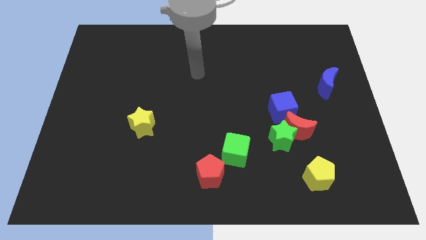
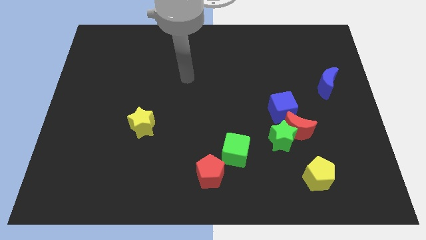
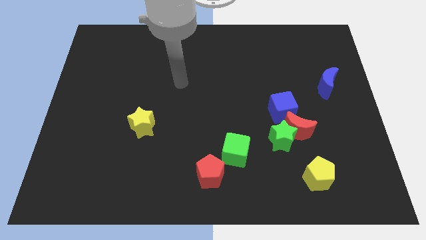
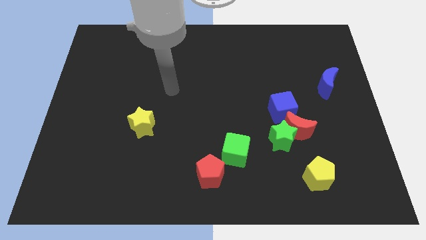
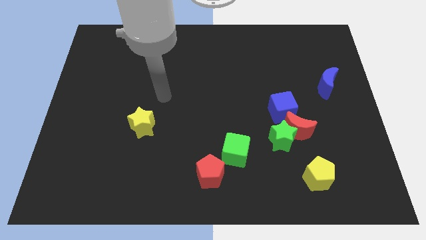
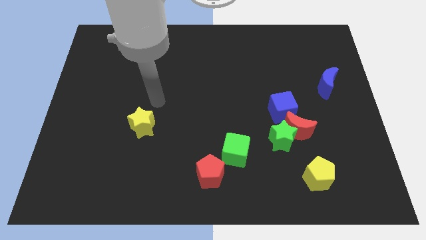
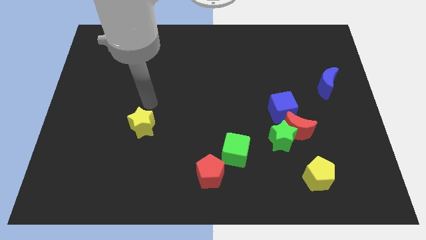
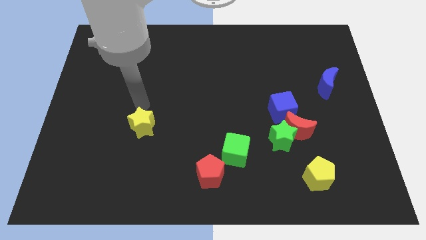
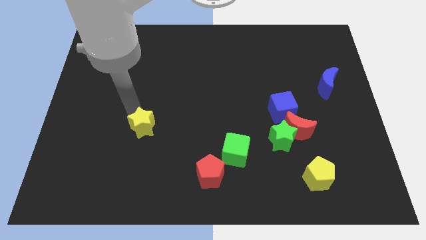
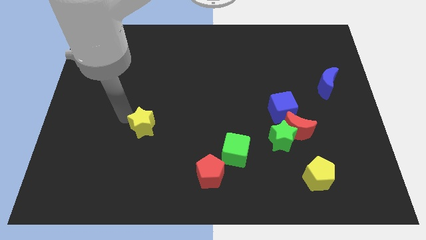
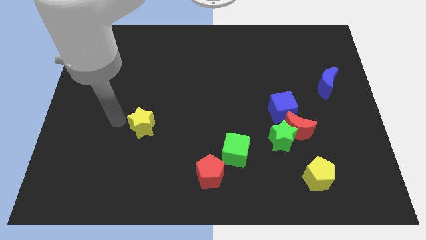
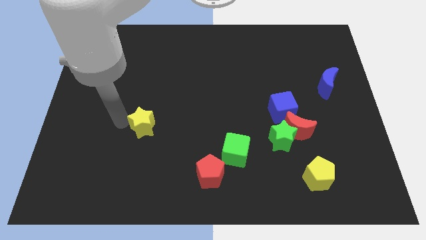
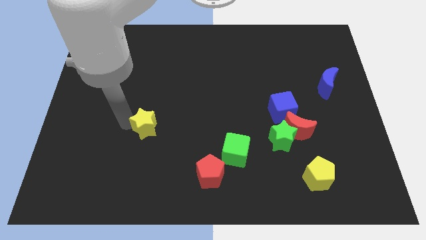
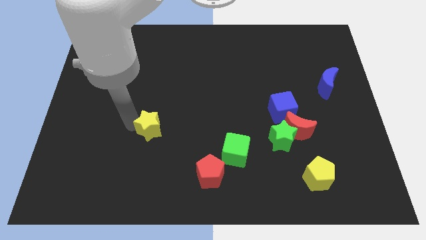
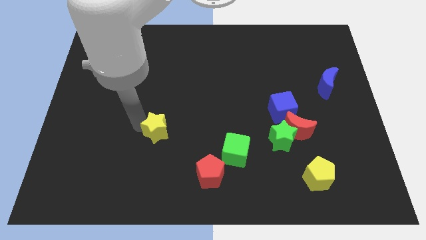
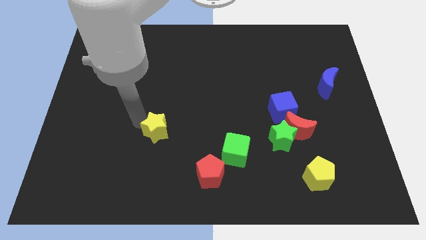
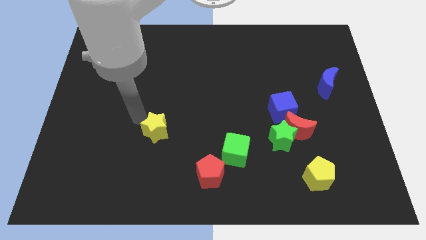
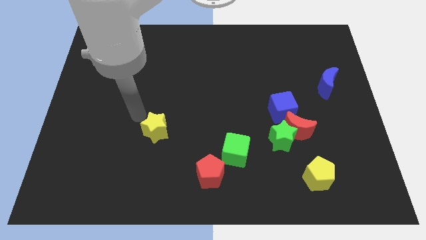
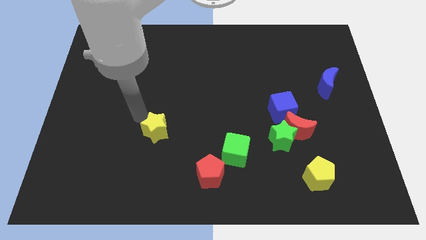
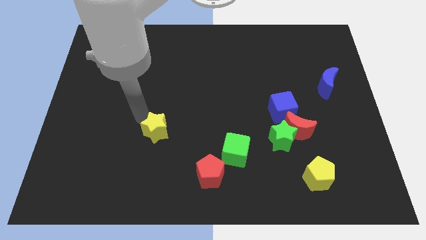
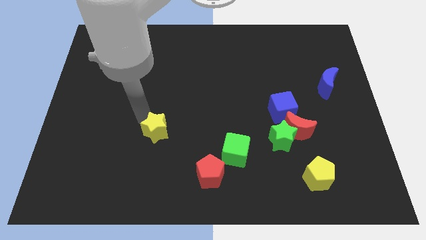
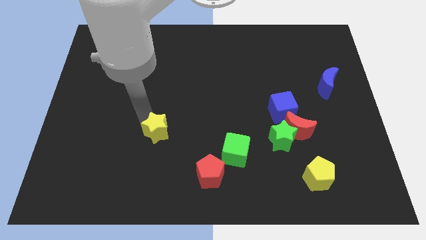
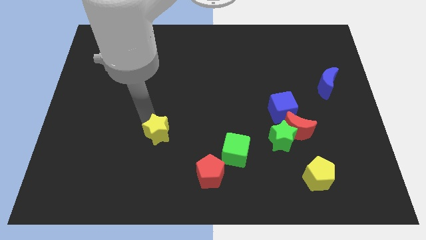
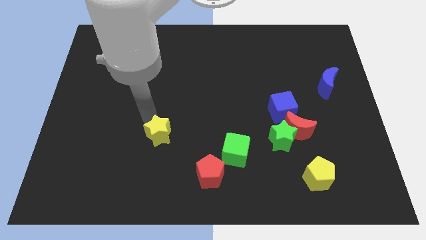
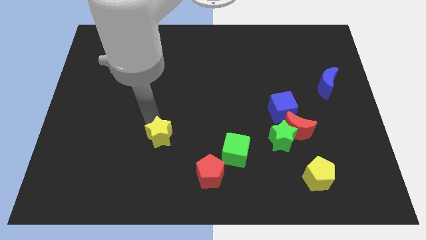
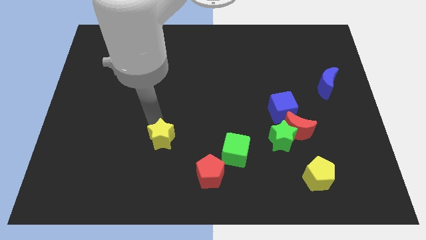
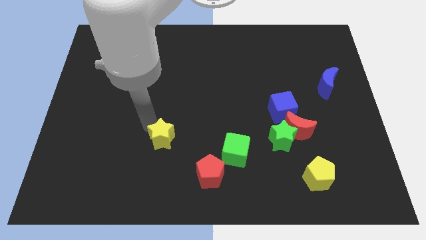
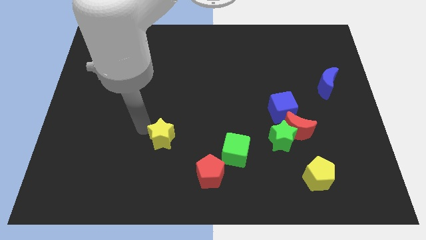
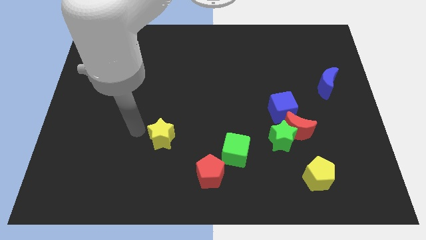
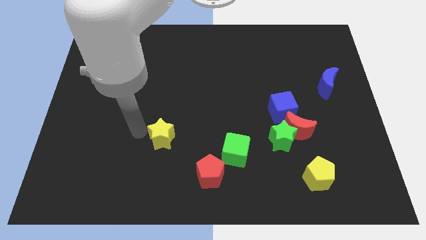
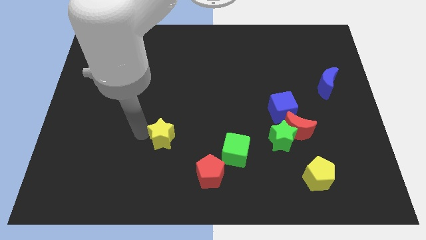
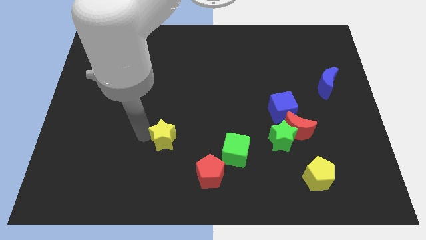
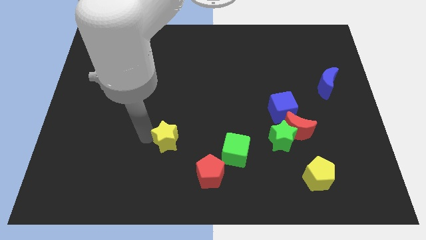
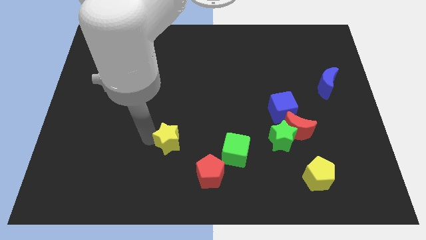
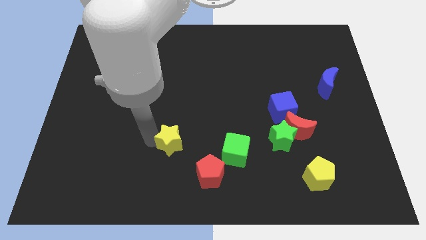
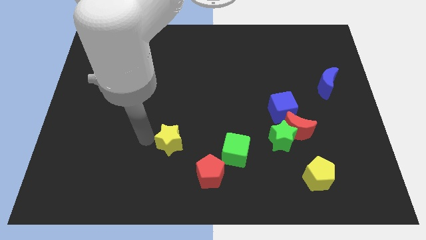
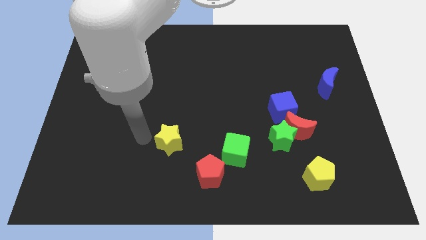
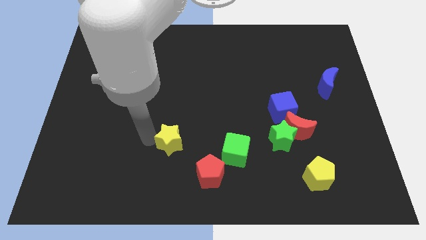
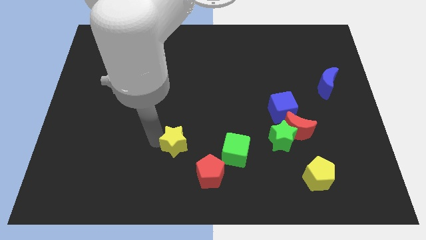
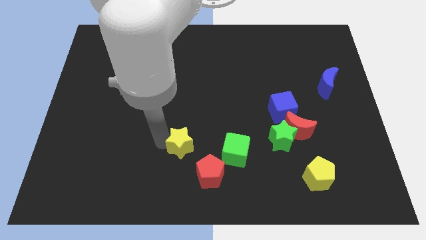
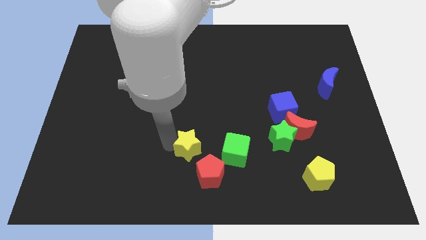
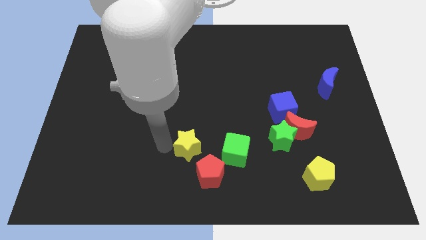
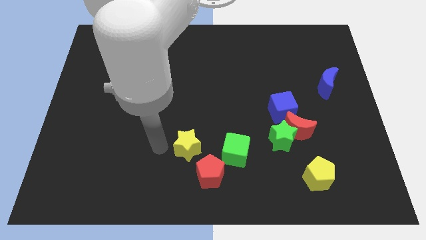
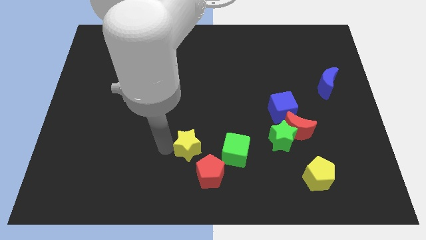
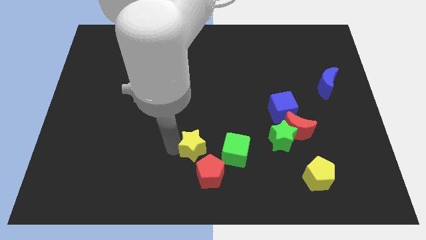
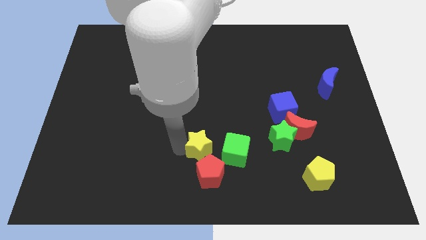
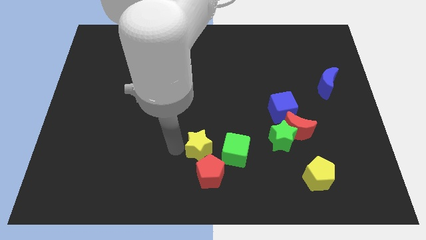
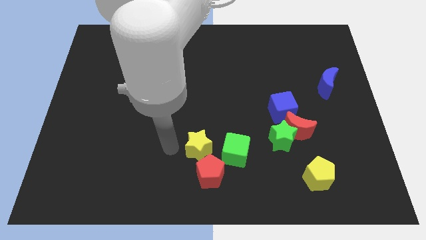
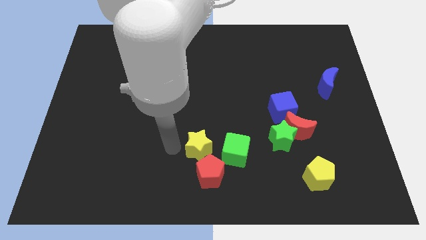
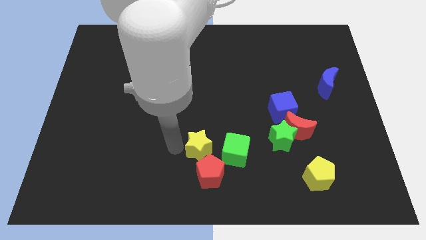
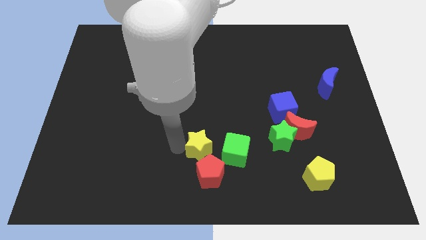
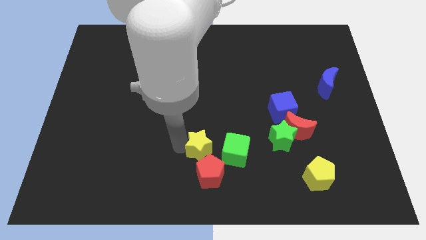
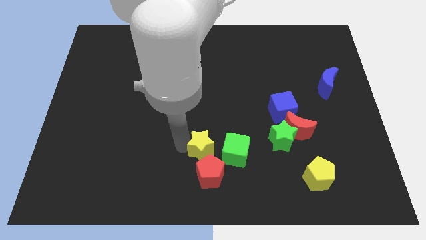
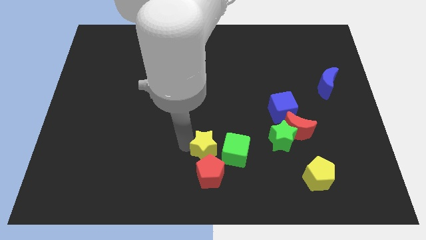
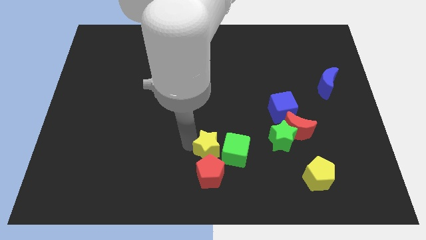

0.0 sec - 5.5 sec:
push the yellow star to the green cube

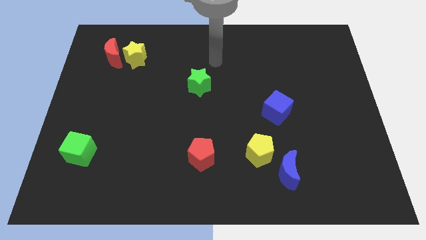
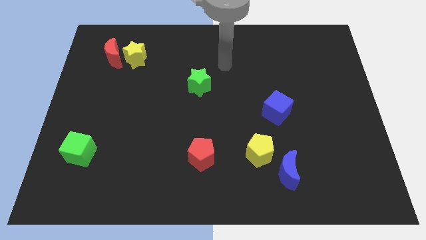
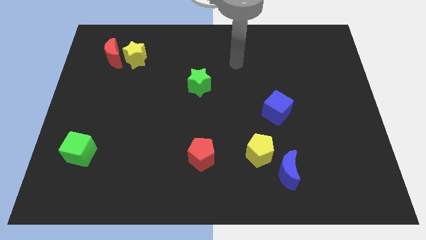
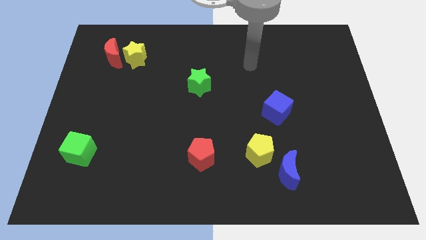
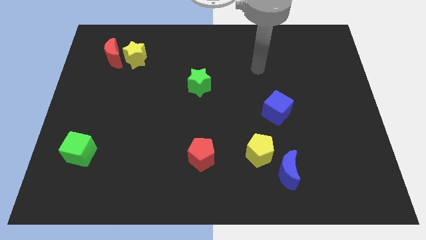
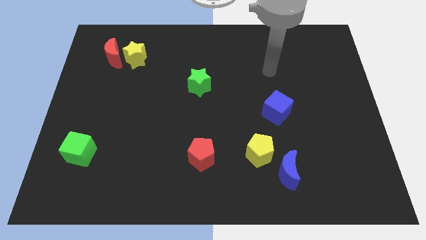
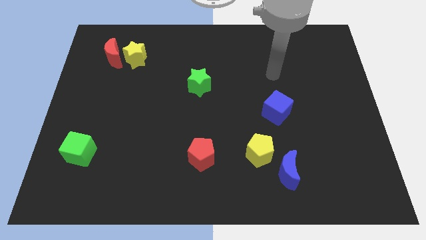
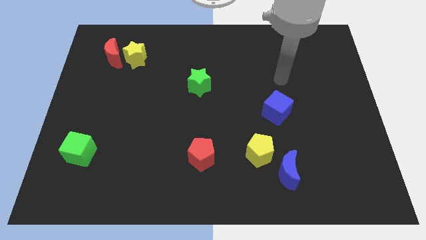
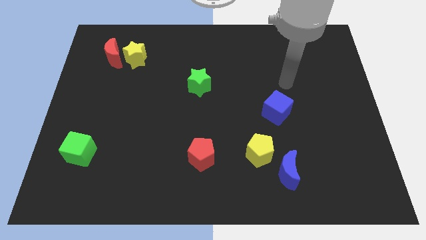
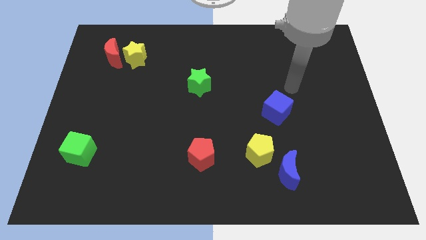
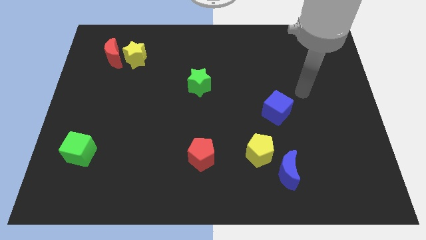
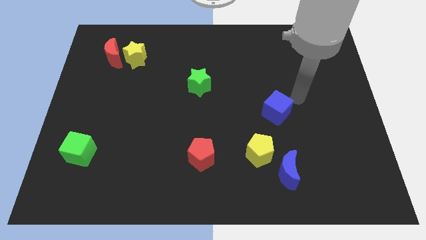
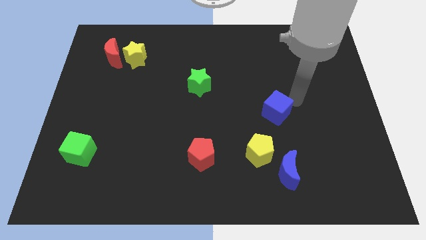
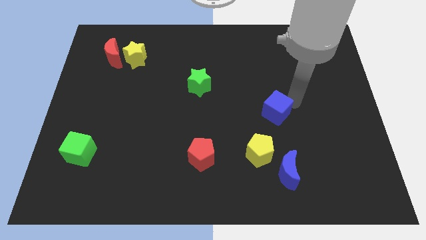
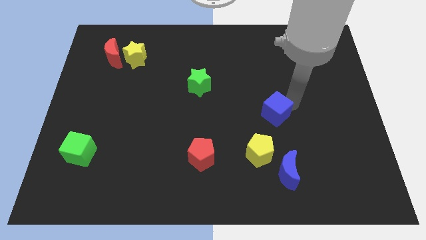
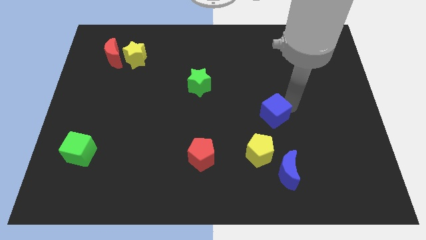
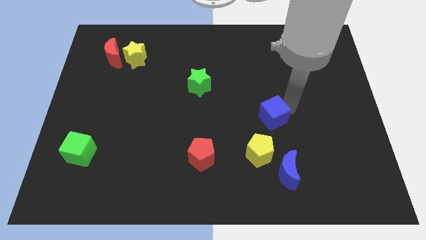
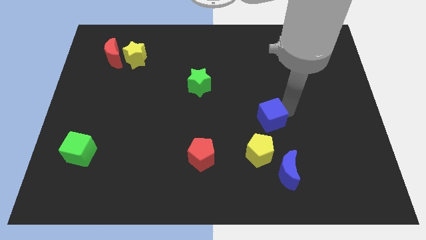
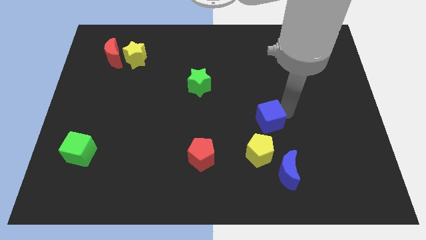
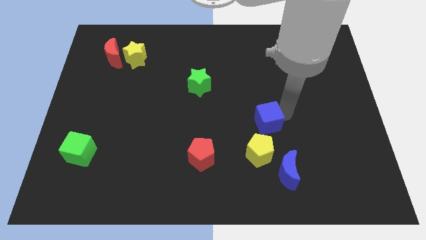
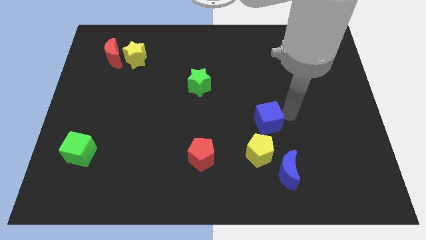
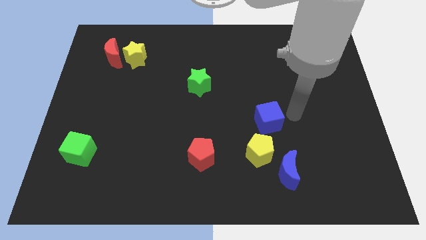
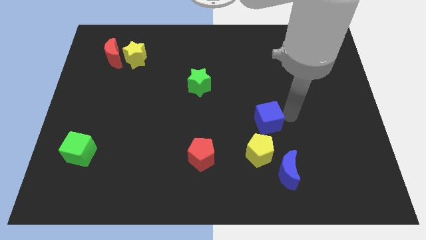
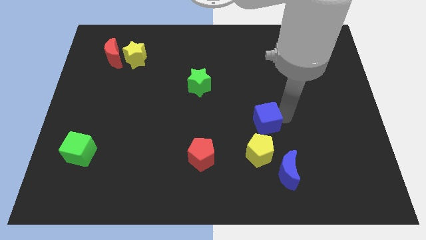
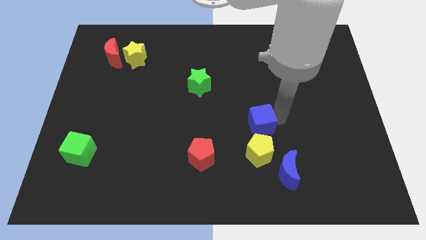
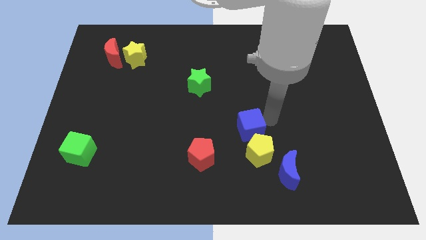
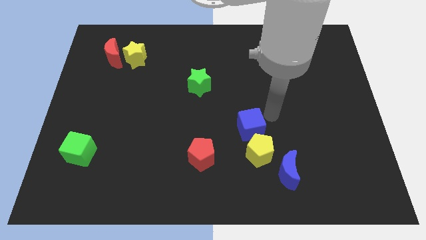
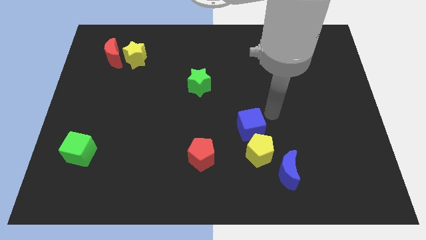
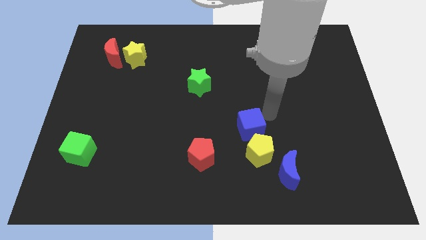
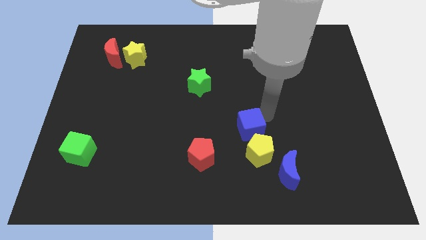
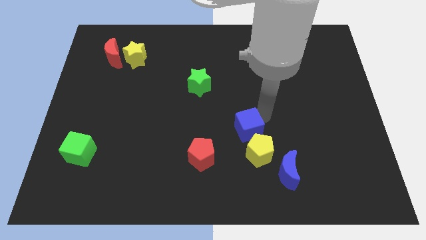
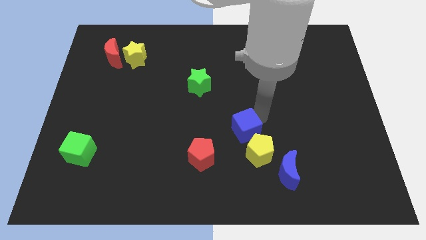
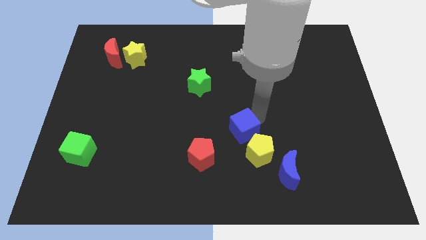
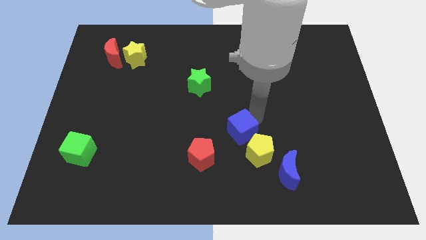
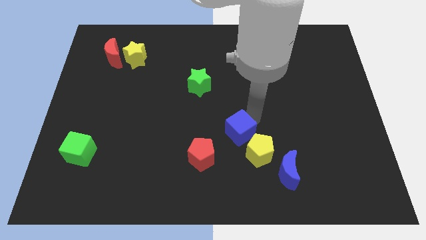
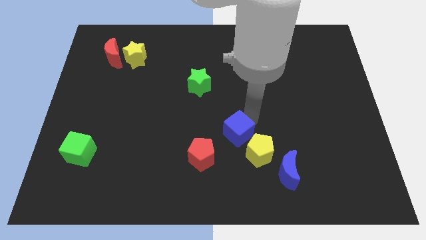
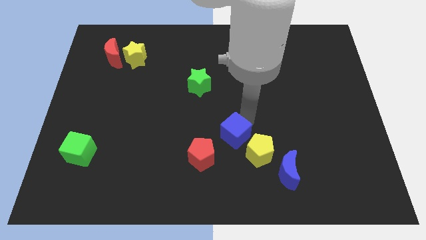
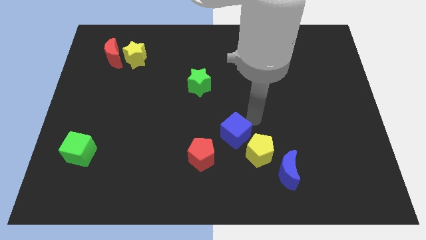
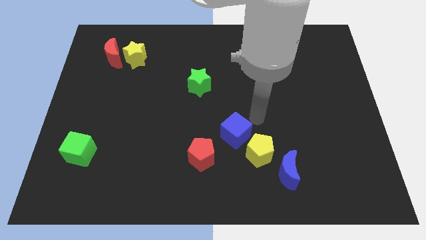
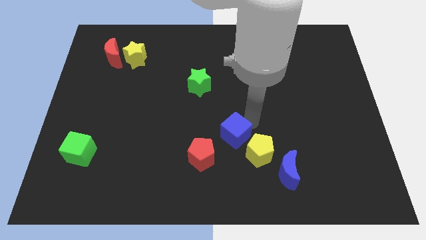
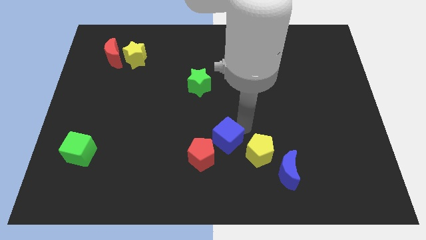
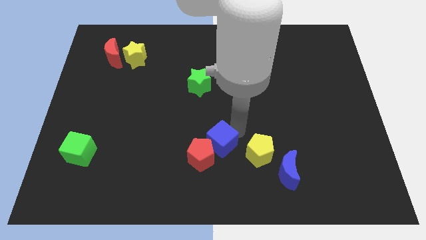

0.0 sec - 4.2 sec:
push the blue cube close to the red pentagon
